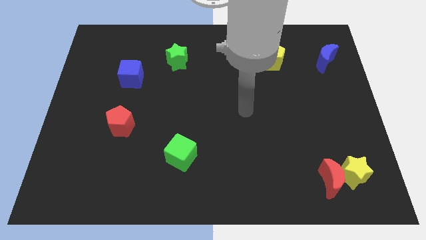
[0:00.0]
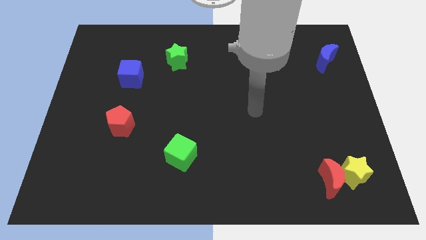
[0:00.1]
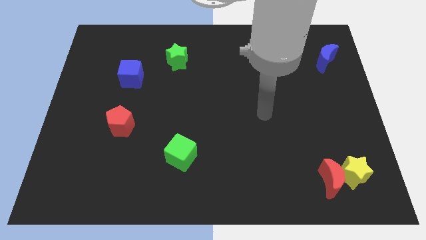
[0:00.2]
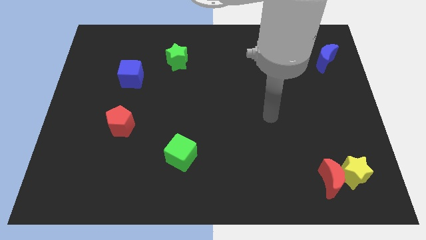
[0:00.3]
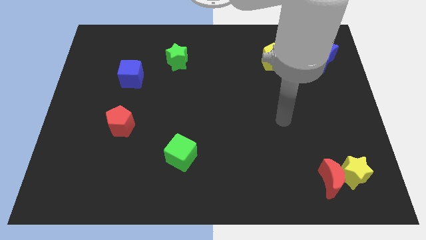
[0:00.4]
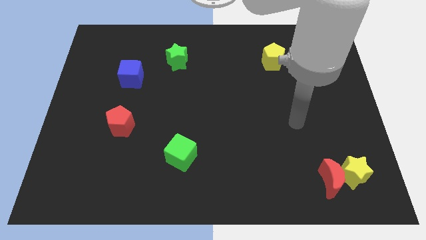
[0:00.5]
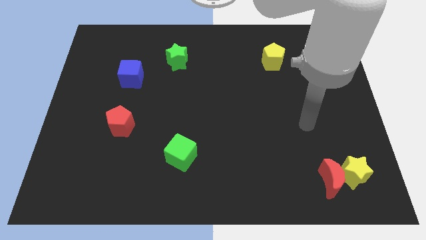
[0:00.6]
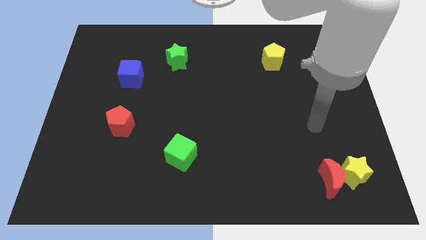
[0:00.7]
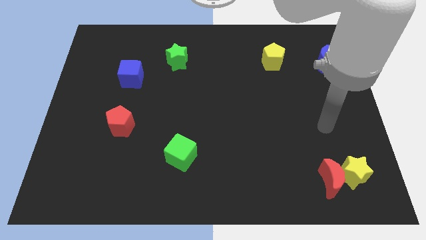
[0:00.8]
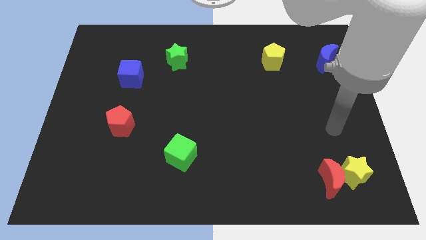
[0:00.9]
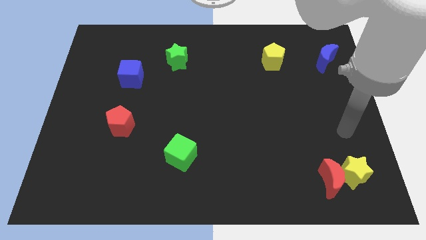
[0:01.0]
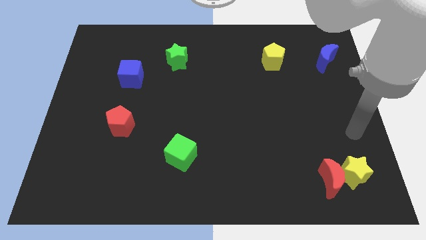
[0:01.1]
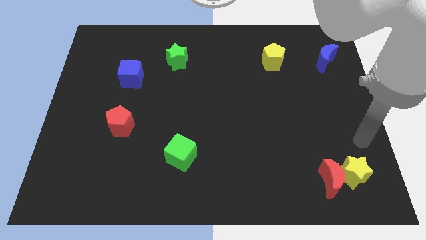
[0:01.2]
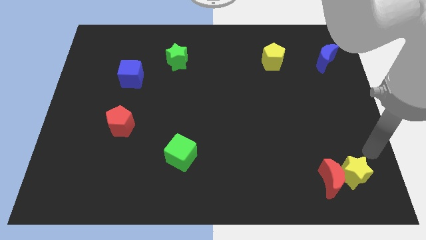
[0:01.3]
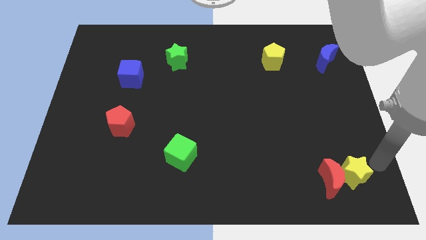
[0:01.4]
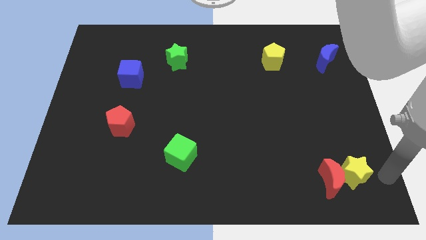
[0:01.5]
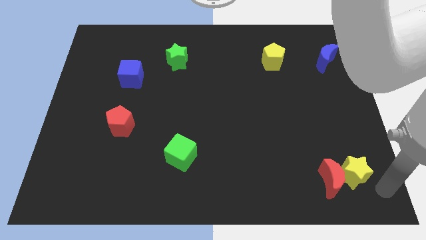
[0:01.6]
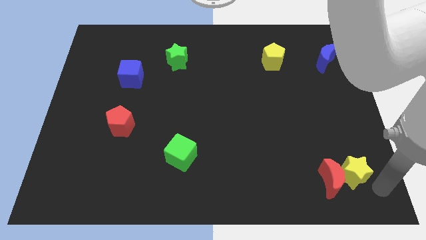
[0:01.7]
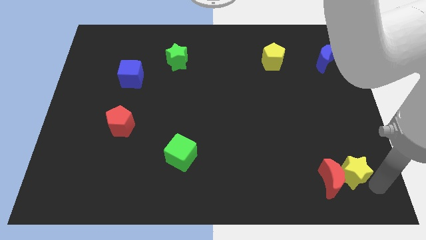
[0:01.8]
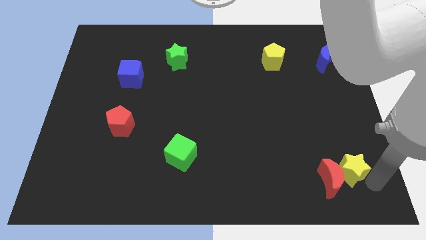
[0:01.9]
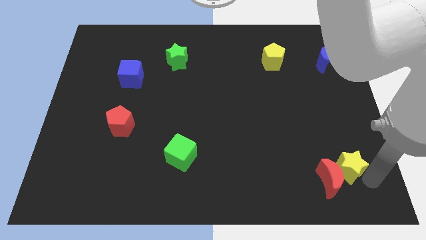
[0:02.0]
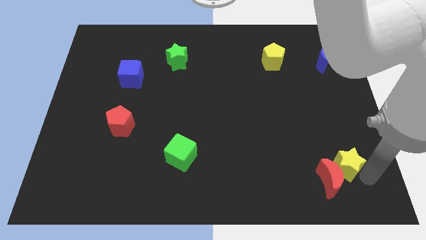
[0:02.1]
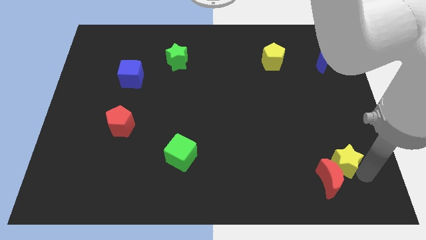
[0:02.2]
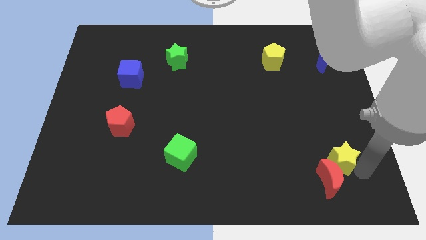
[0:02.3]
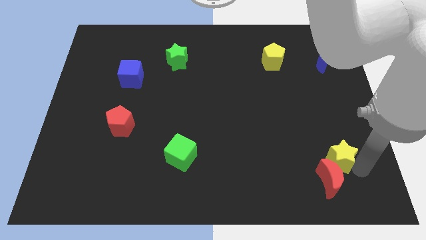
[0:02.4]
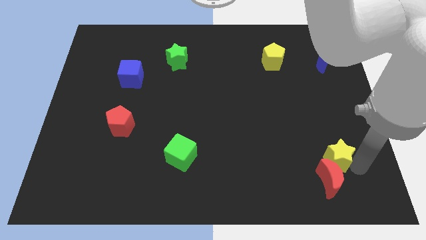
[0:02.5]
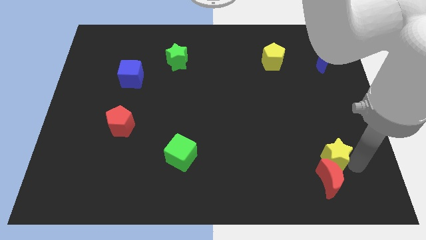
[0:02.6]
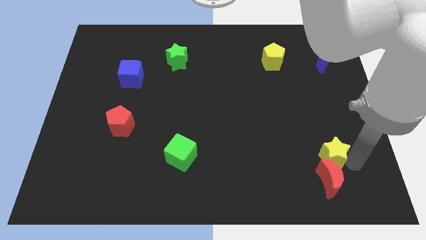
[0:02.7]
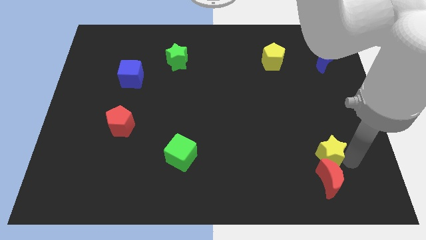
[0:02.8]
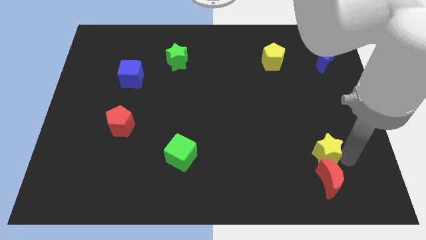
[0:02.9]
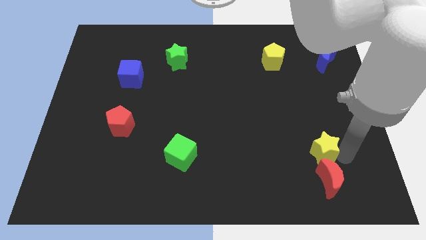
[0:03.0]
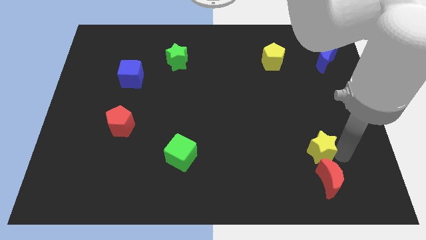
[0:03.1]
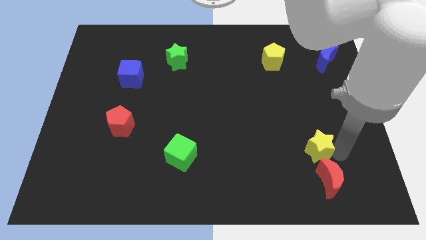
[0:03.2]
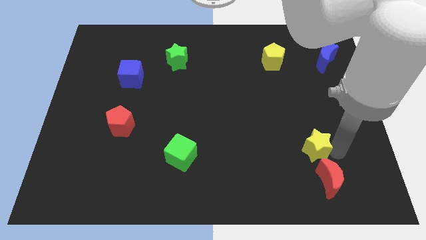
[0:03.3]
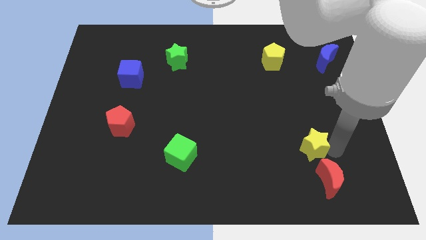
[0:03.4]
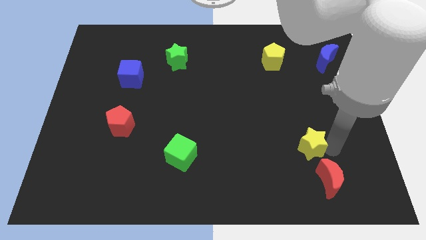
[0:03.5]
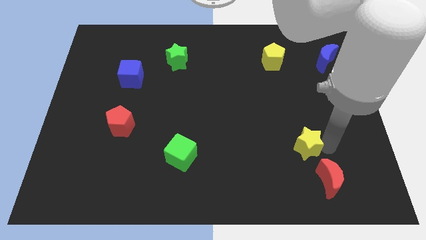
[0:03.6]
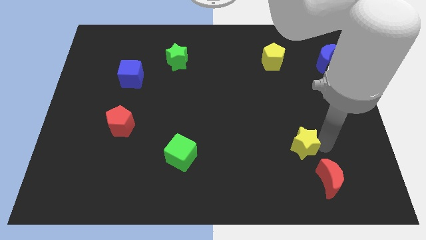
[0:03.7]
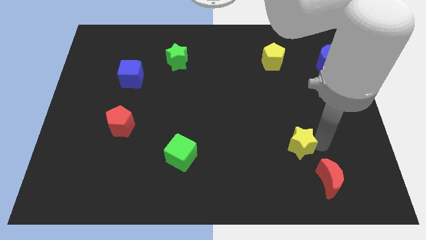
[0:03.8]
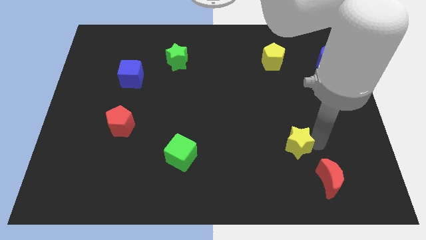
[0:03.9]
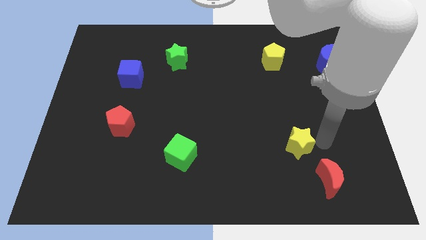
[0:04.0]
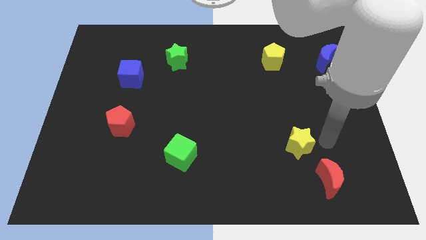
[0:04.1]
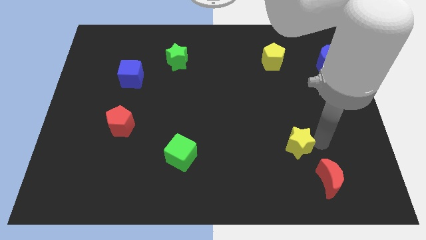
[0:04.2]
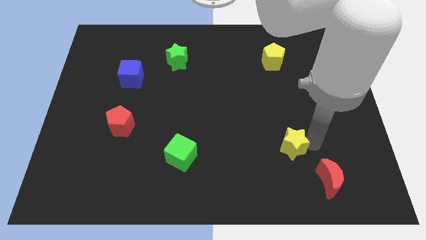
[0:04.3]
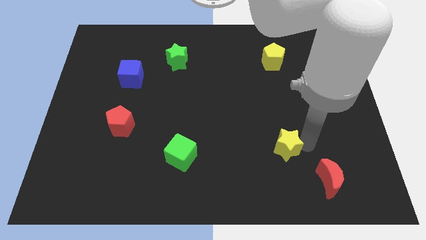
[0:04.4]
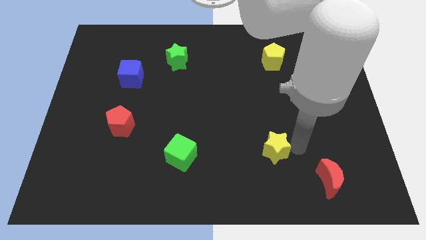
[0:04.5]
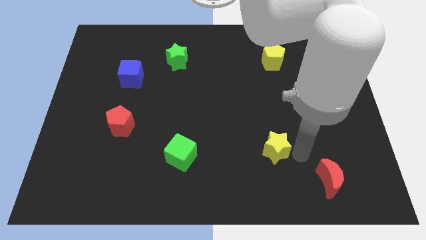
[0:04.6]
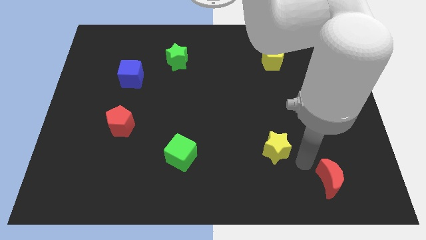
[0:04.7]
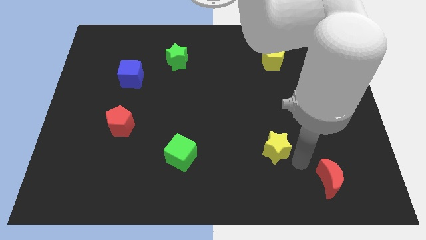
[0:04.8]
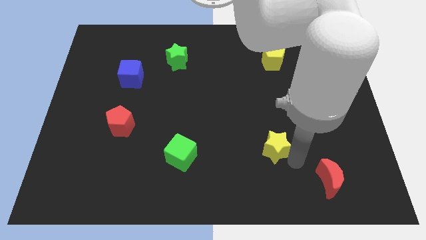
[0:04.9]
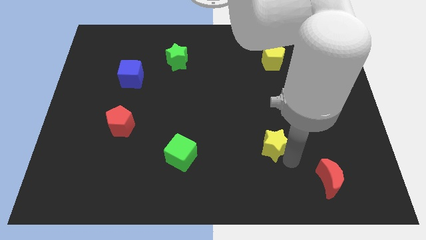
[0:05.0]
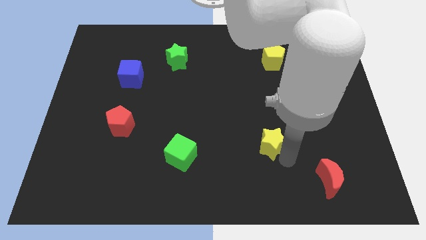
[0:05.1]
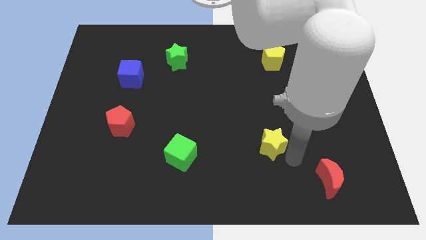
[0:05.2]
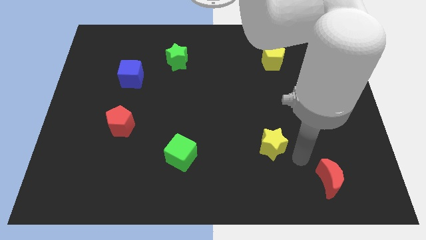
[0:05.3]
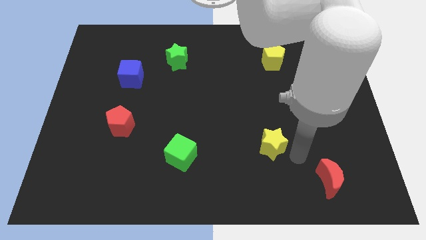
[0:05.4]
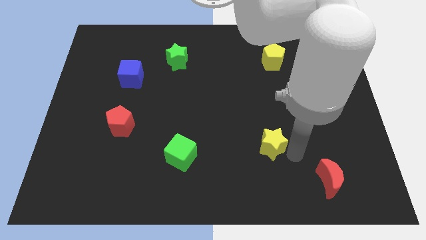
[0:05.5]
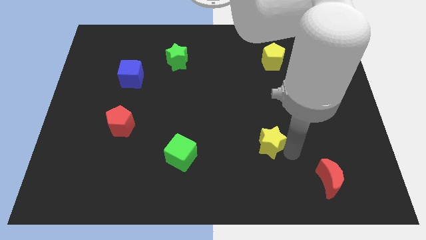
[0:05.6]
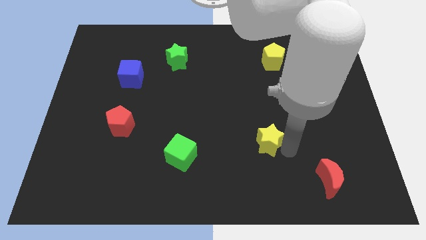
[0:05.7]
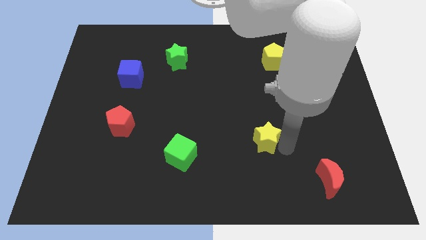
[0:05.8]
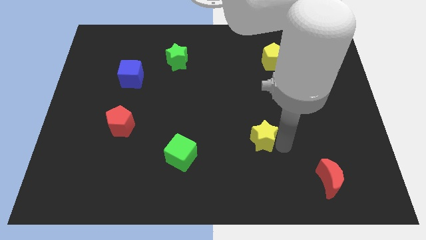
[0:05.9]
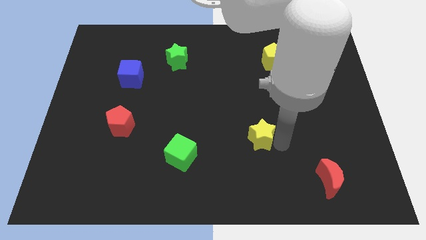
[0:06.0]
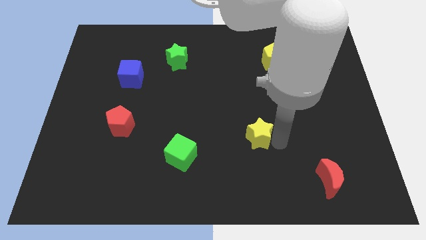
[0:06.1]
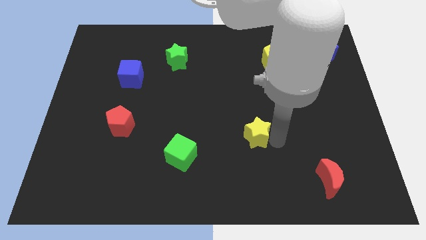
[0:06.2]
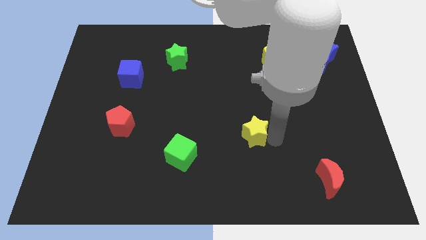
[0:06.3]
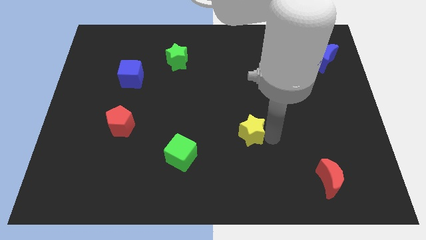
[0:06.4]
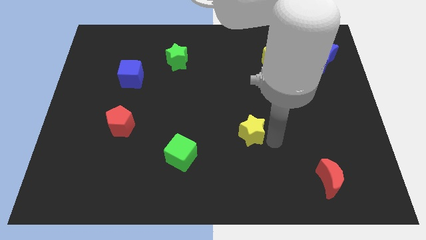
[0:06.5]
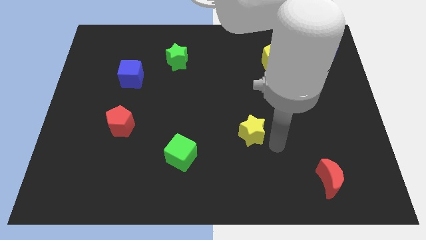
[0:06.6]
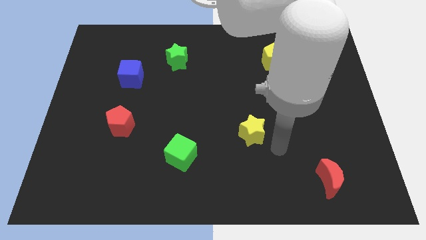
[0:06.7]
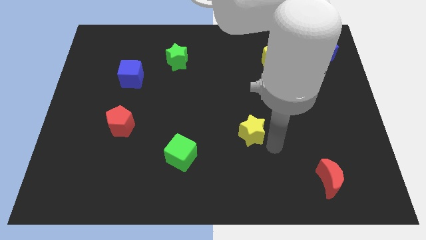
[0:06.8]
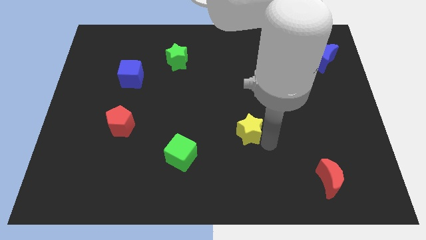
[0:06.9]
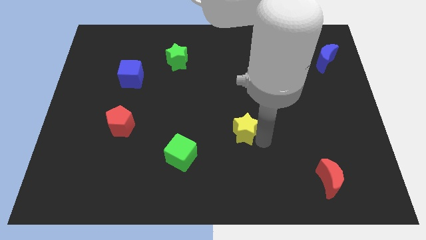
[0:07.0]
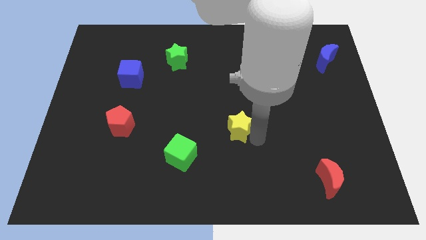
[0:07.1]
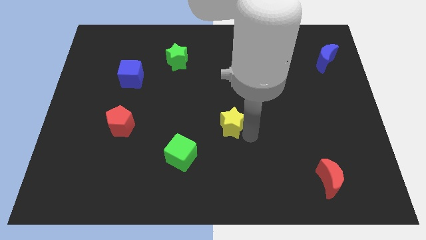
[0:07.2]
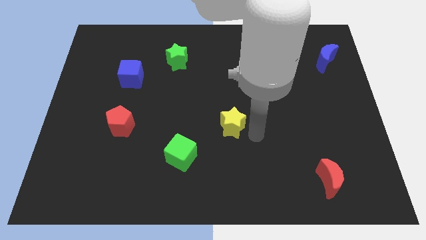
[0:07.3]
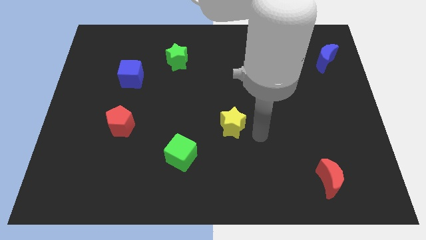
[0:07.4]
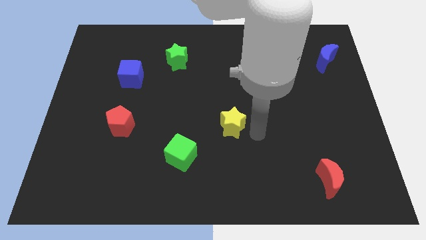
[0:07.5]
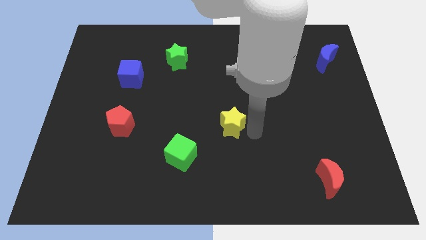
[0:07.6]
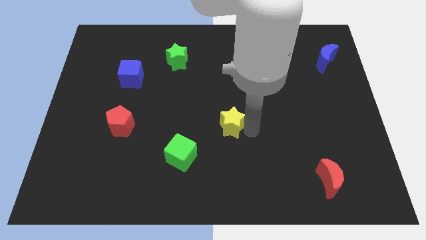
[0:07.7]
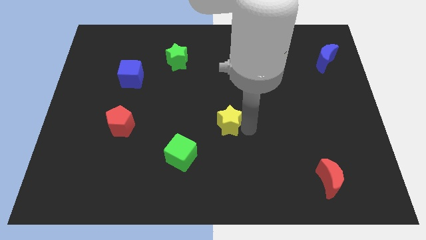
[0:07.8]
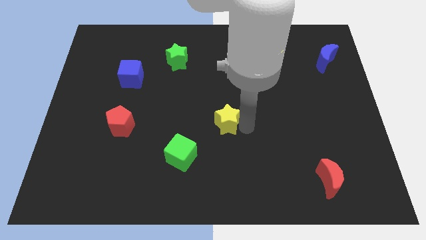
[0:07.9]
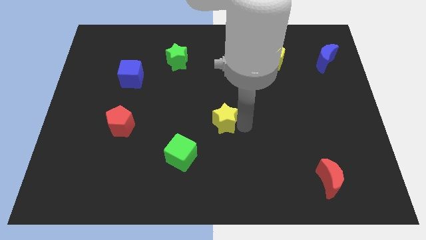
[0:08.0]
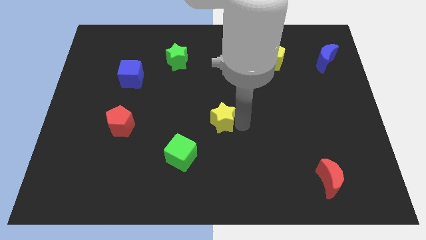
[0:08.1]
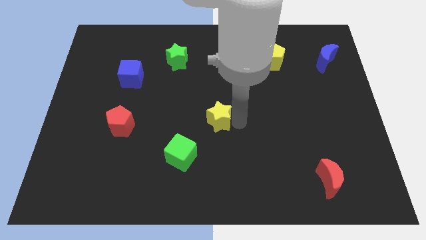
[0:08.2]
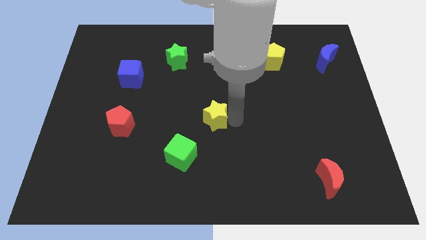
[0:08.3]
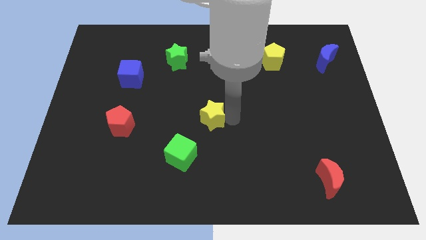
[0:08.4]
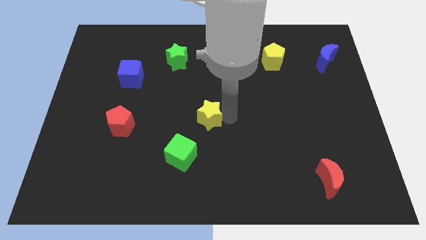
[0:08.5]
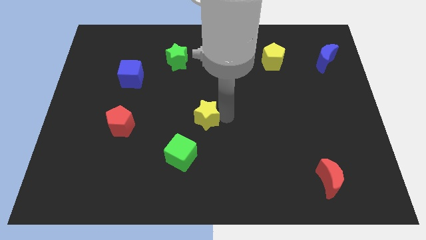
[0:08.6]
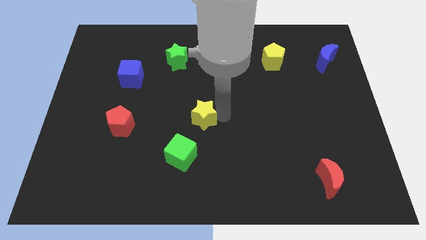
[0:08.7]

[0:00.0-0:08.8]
move the yellow star to the top side of the green cube
